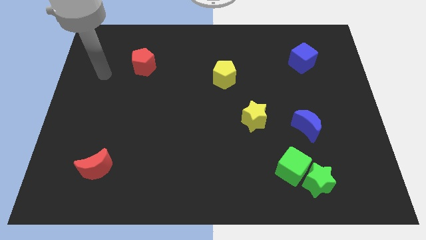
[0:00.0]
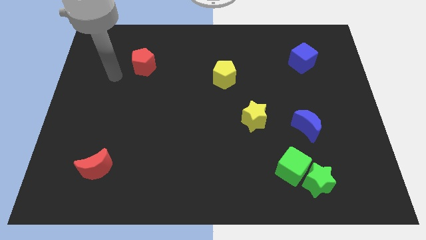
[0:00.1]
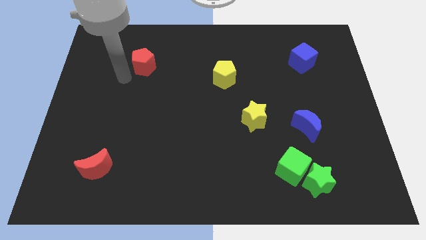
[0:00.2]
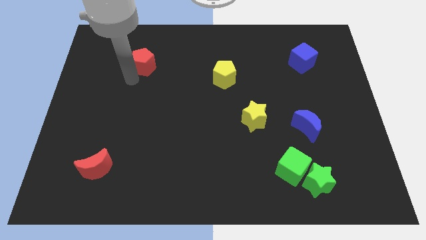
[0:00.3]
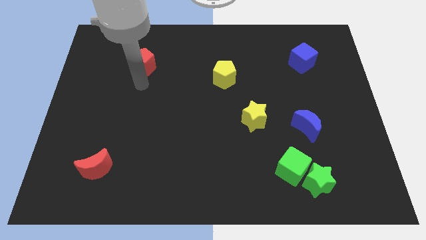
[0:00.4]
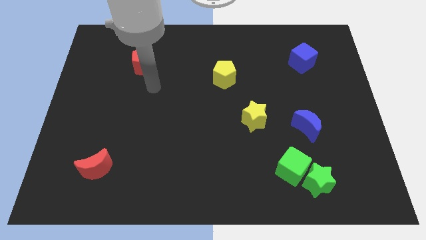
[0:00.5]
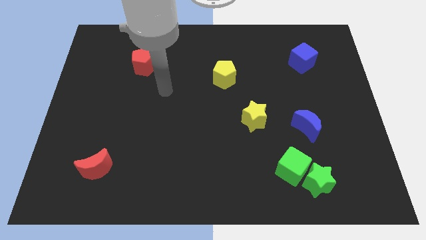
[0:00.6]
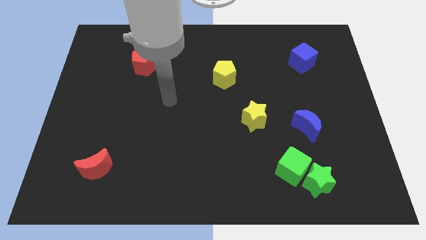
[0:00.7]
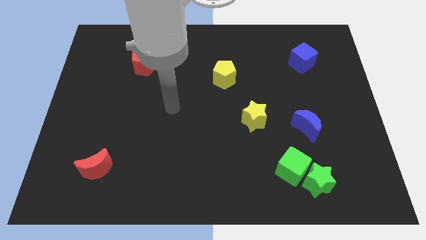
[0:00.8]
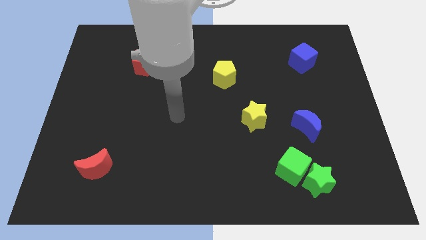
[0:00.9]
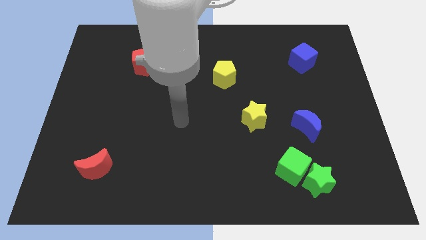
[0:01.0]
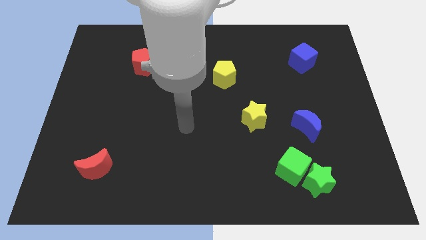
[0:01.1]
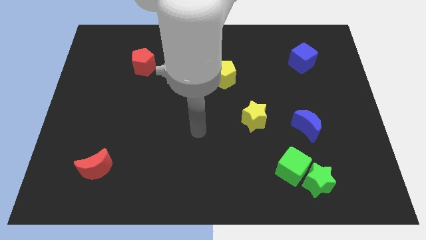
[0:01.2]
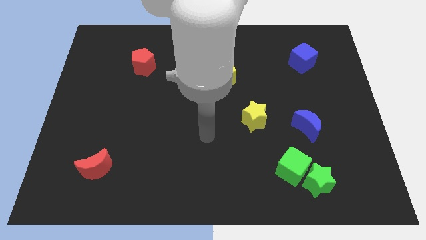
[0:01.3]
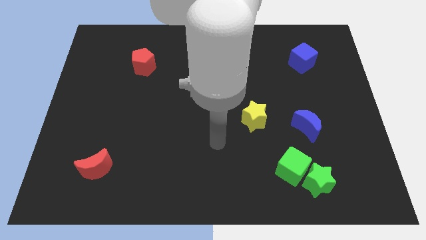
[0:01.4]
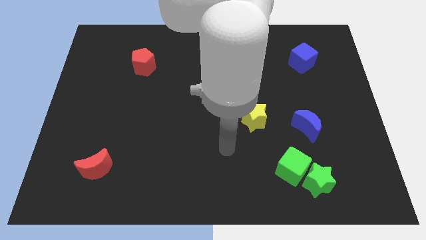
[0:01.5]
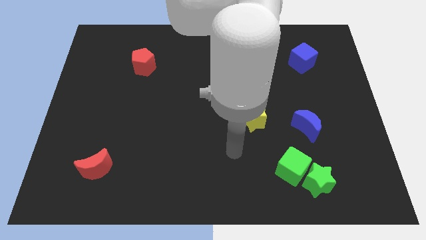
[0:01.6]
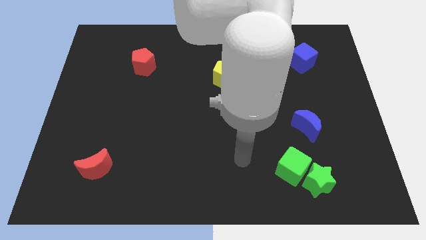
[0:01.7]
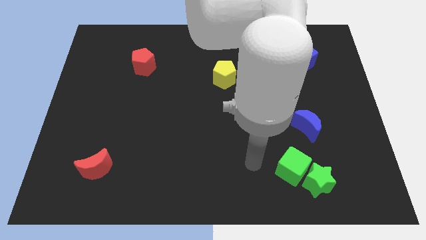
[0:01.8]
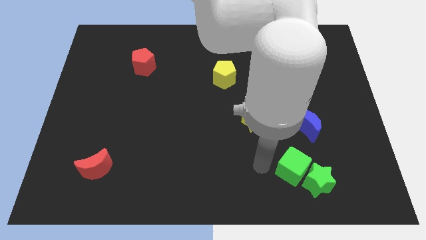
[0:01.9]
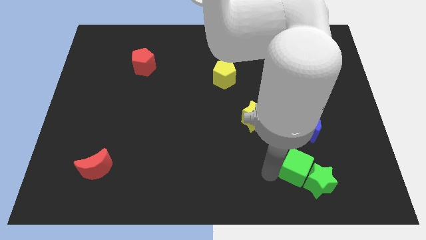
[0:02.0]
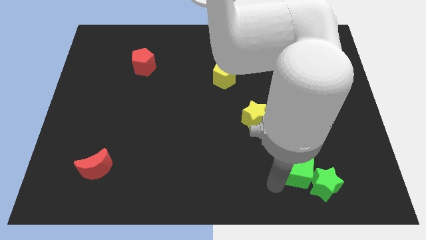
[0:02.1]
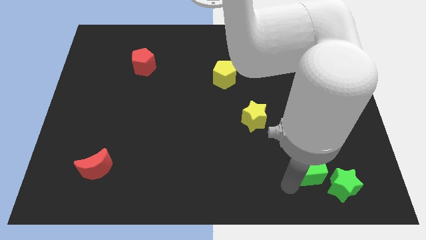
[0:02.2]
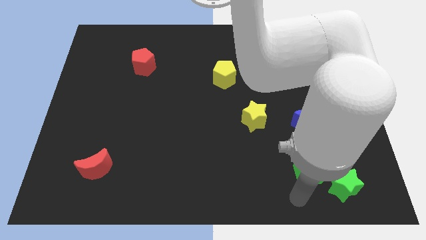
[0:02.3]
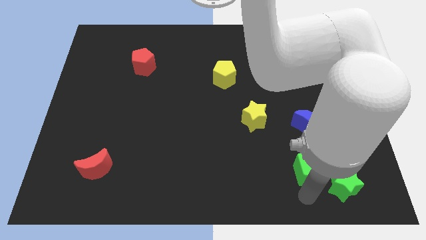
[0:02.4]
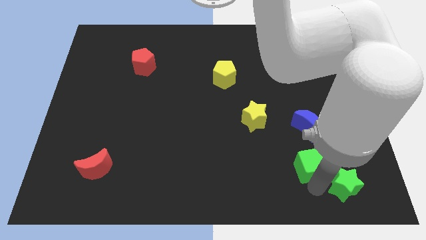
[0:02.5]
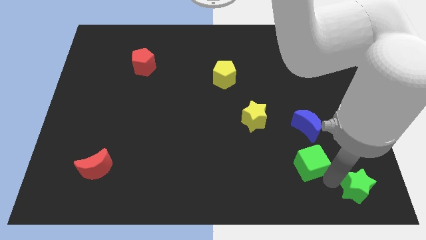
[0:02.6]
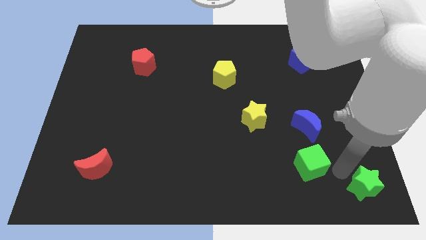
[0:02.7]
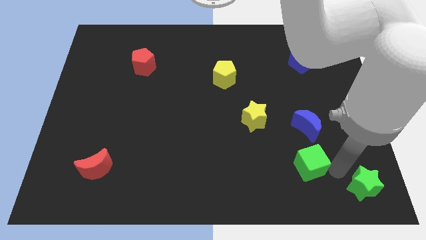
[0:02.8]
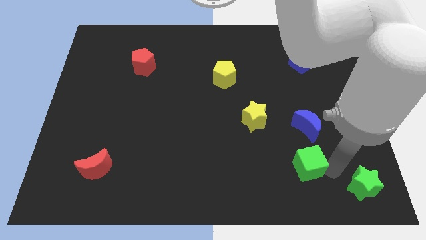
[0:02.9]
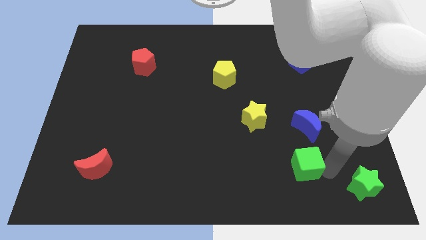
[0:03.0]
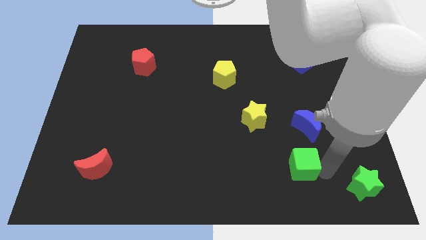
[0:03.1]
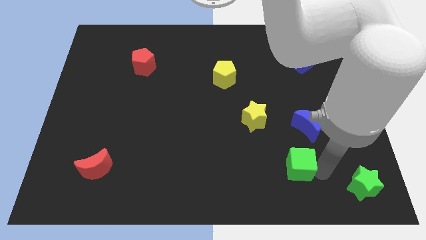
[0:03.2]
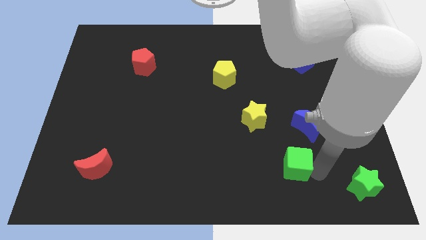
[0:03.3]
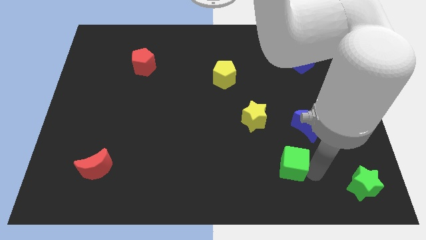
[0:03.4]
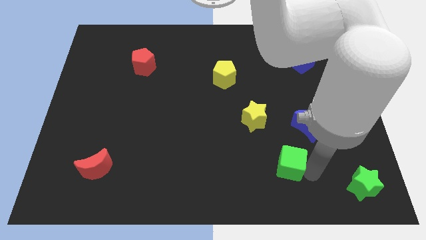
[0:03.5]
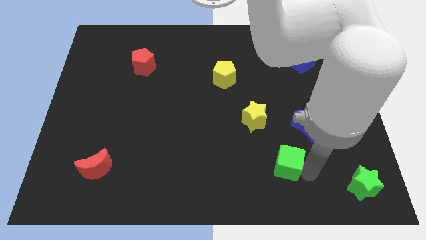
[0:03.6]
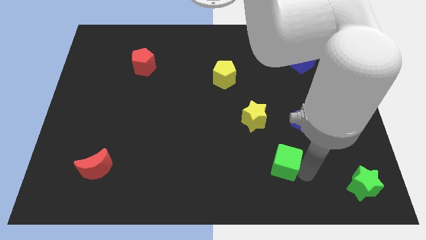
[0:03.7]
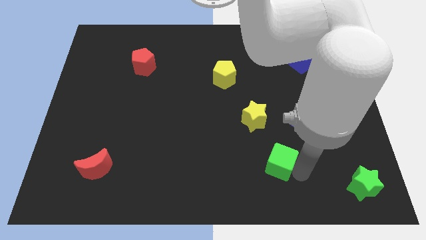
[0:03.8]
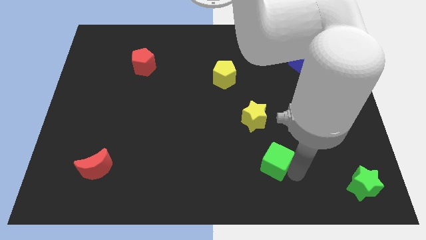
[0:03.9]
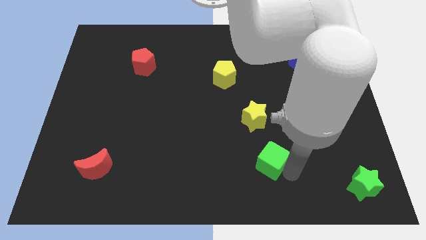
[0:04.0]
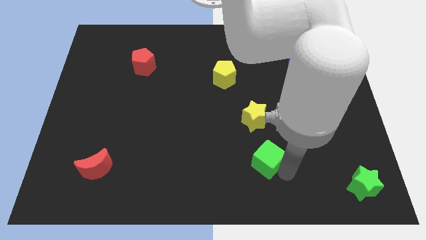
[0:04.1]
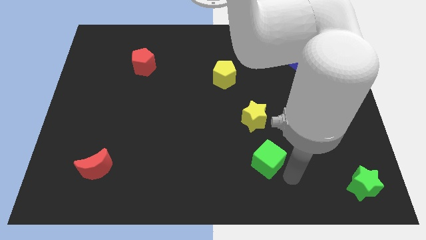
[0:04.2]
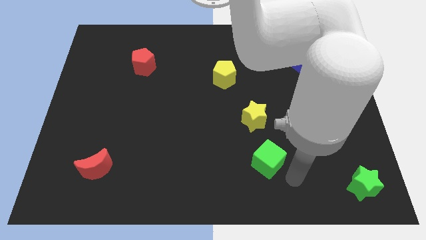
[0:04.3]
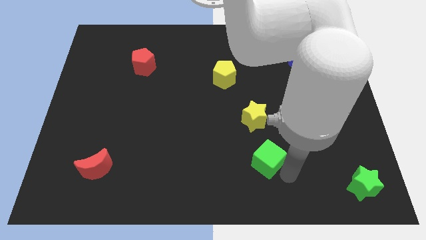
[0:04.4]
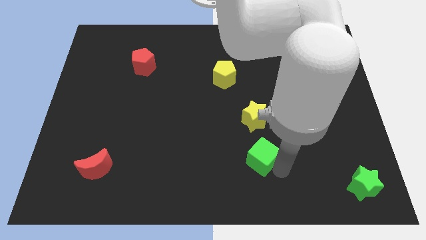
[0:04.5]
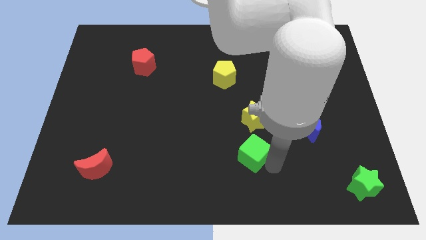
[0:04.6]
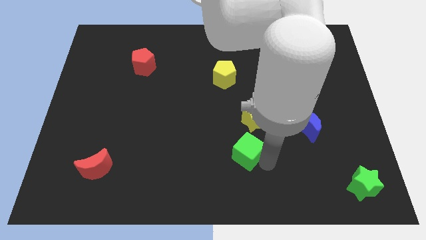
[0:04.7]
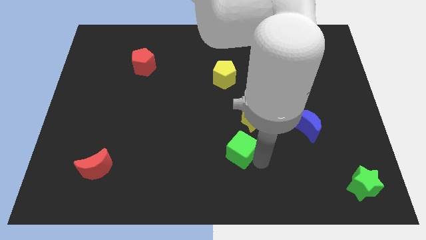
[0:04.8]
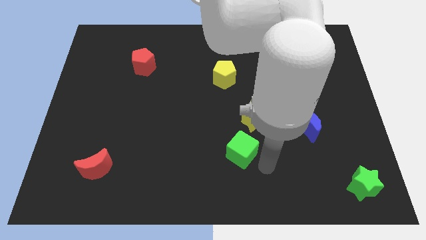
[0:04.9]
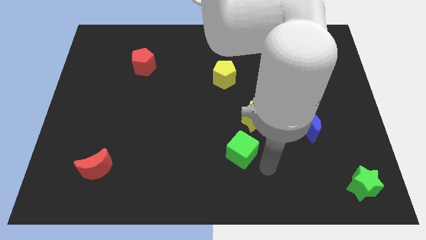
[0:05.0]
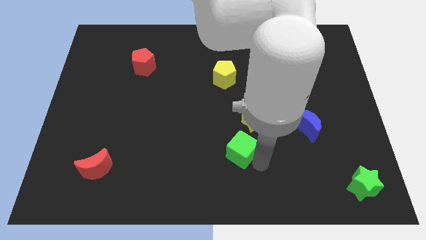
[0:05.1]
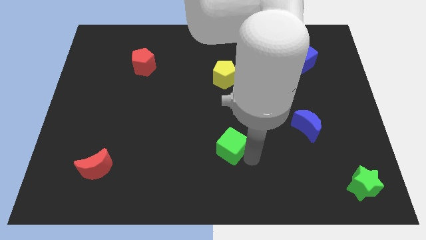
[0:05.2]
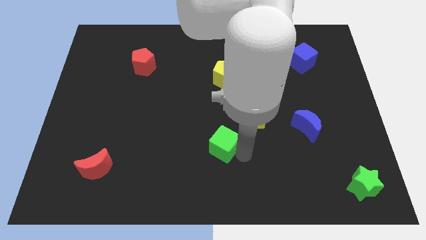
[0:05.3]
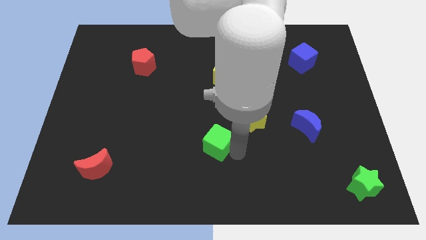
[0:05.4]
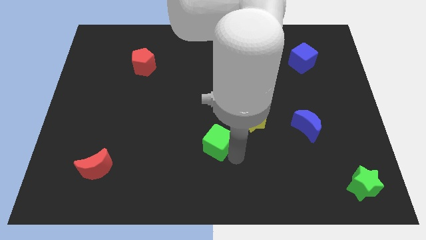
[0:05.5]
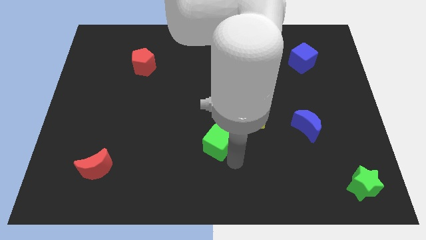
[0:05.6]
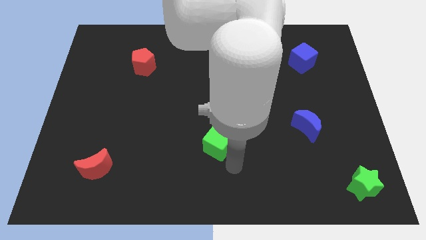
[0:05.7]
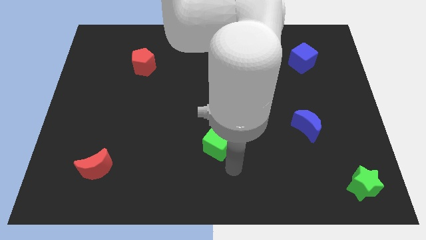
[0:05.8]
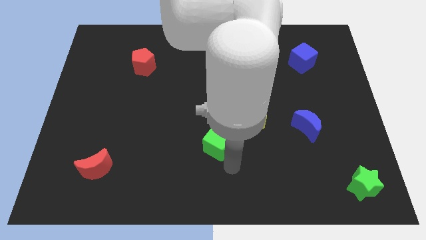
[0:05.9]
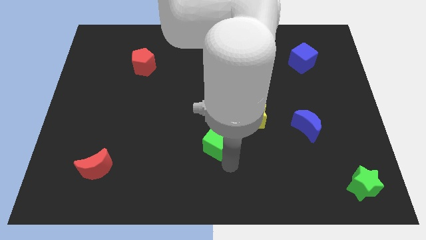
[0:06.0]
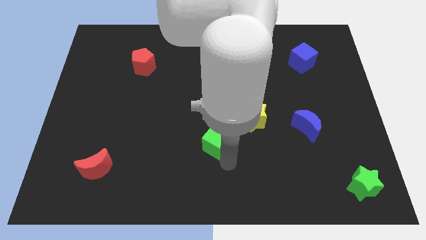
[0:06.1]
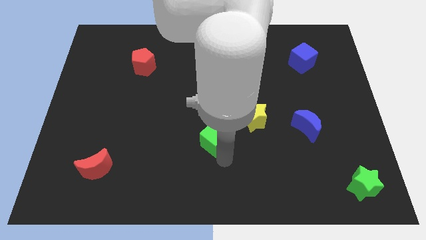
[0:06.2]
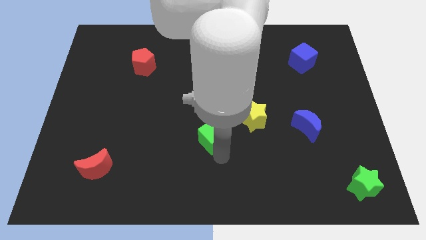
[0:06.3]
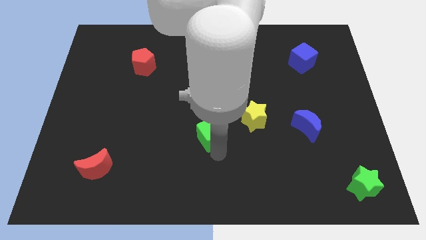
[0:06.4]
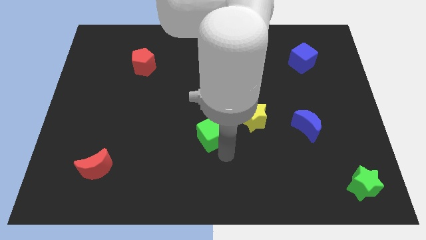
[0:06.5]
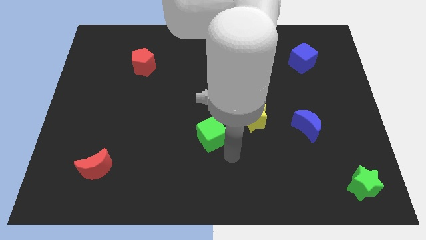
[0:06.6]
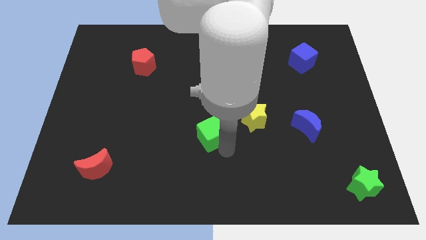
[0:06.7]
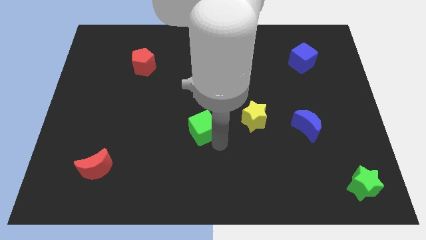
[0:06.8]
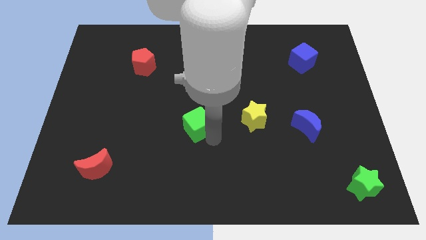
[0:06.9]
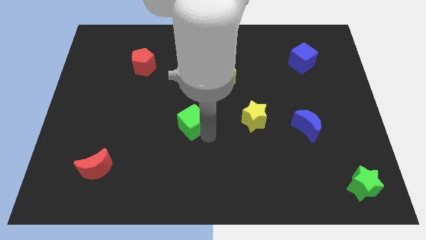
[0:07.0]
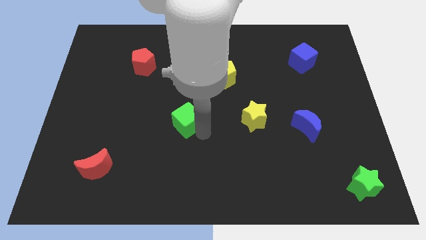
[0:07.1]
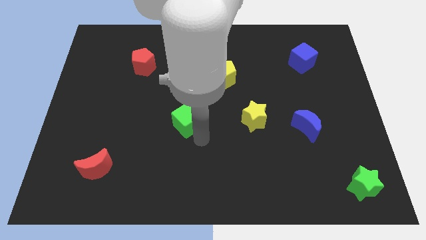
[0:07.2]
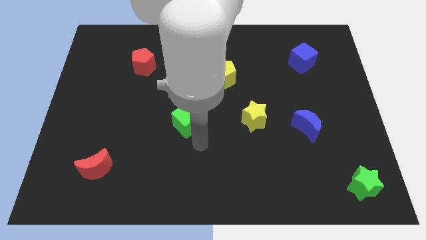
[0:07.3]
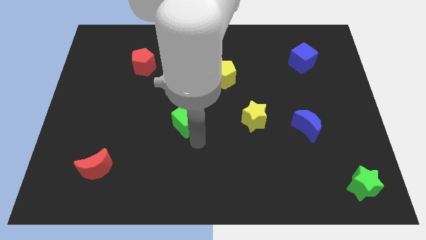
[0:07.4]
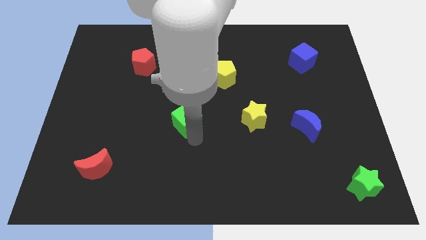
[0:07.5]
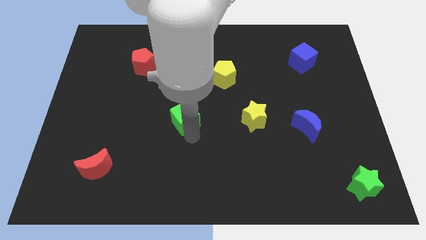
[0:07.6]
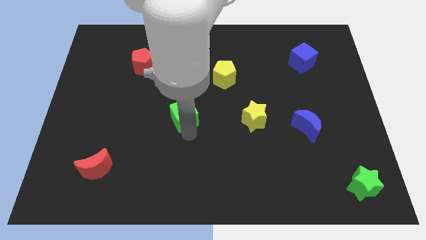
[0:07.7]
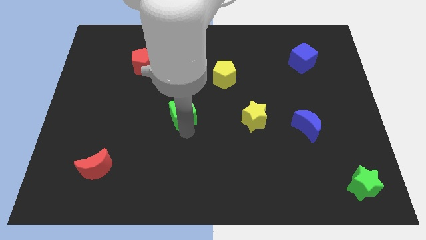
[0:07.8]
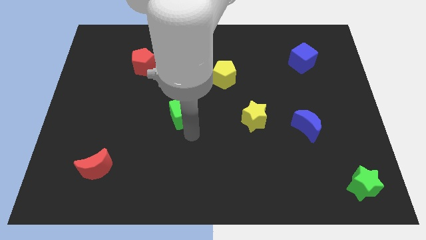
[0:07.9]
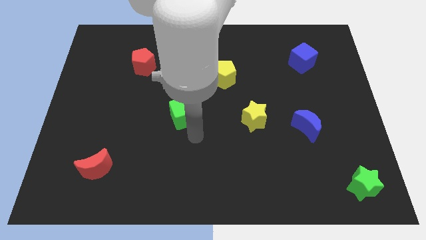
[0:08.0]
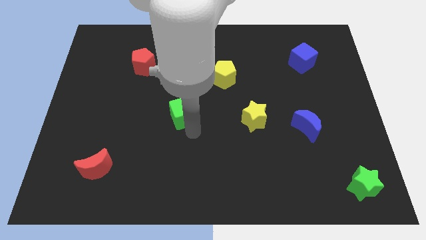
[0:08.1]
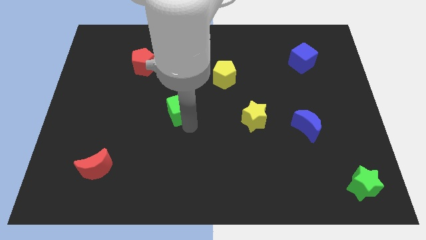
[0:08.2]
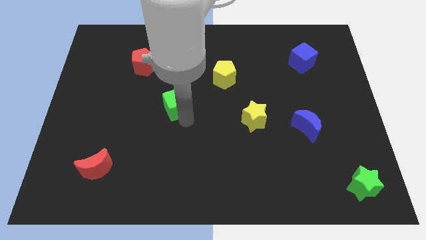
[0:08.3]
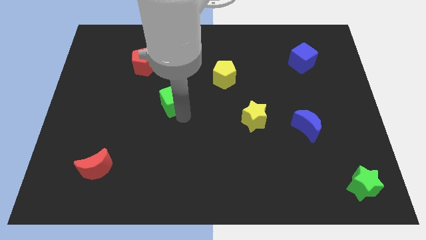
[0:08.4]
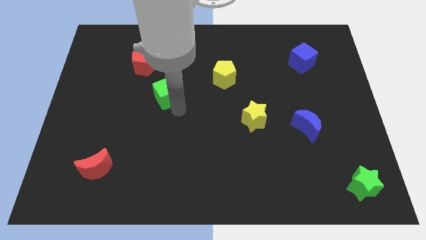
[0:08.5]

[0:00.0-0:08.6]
slide the green cube to the bottom right of the red pentagon
